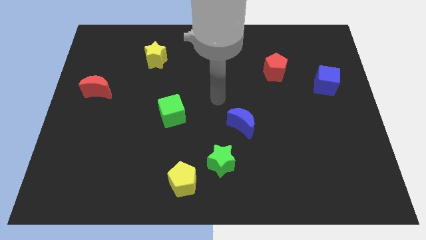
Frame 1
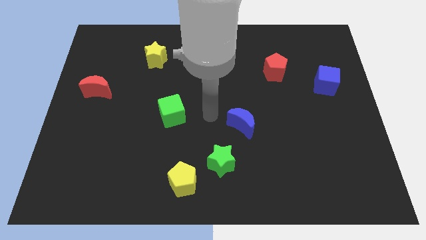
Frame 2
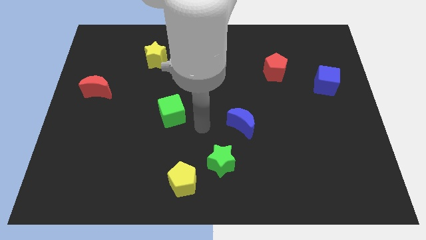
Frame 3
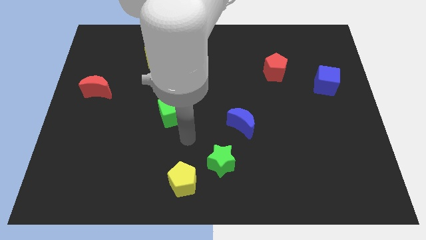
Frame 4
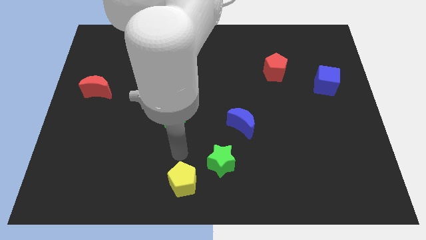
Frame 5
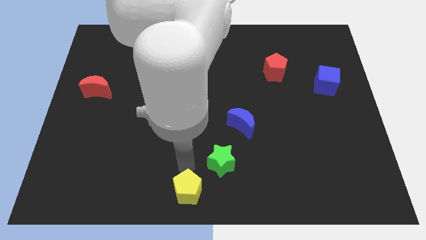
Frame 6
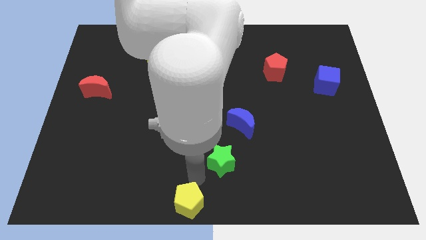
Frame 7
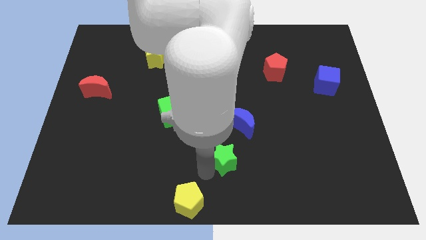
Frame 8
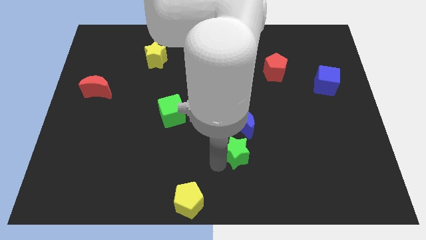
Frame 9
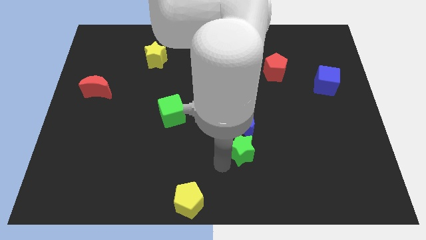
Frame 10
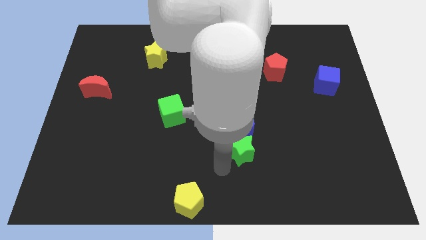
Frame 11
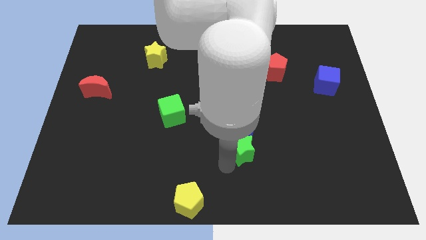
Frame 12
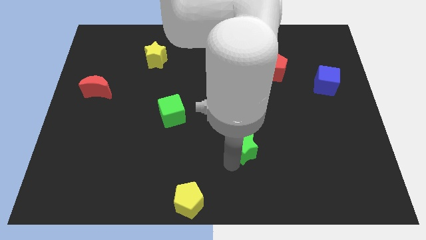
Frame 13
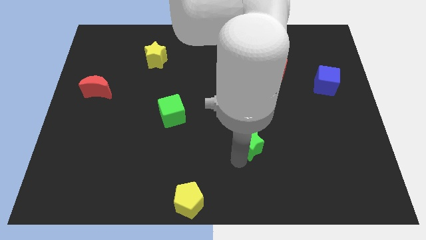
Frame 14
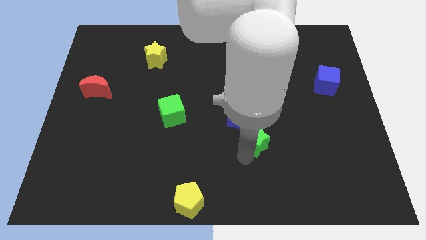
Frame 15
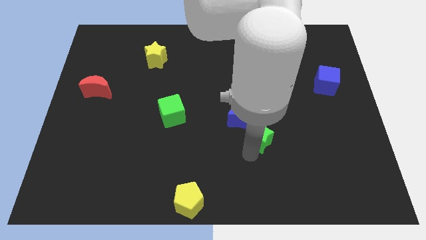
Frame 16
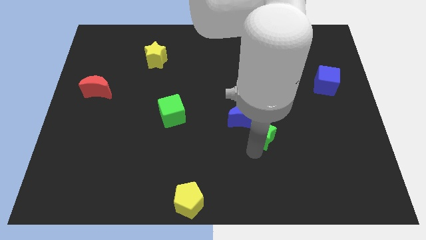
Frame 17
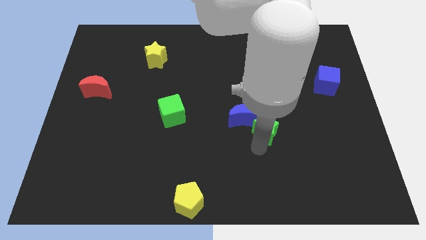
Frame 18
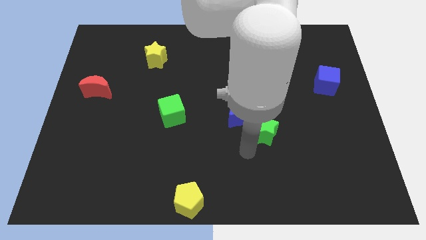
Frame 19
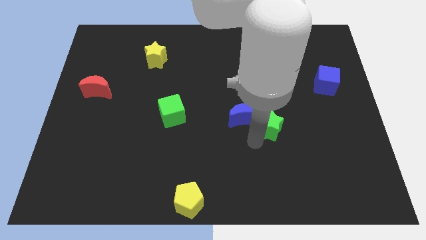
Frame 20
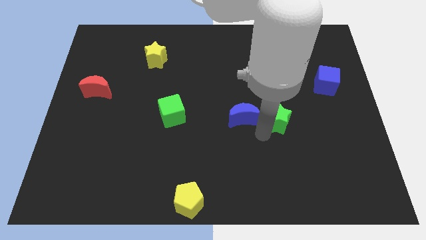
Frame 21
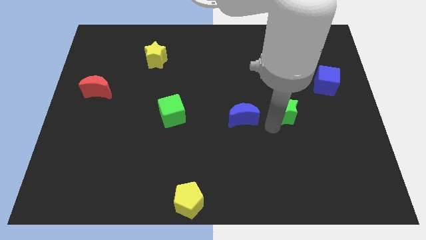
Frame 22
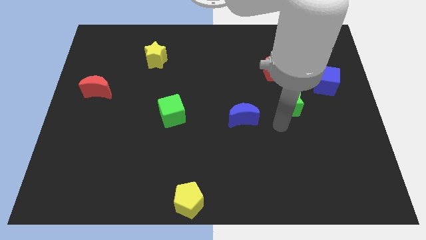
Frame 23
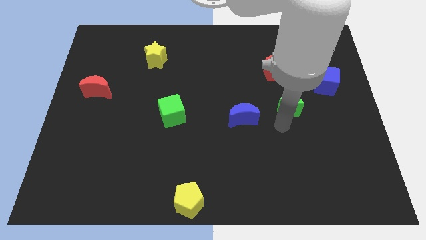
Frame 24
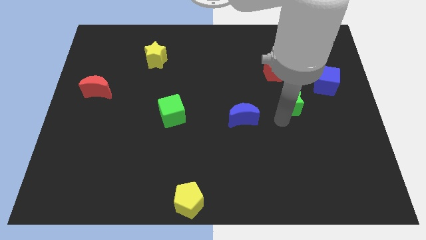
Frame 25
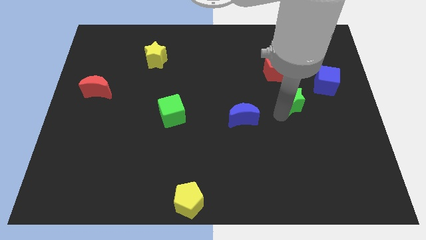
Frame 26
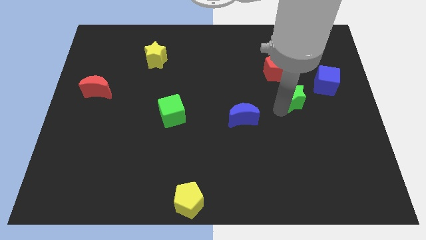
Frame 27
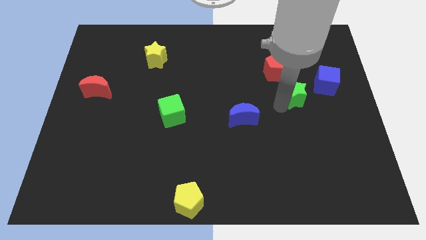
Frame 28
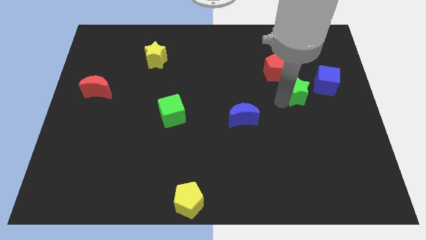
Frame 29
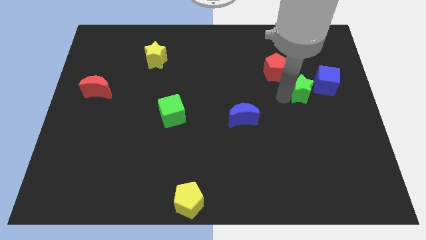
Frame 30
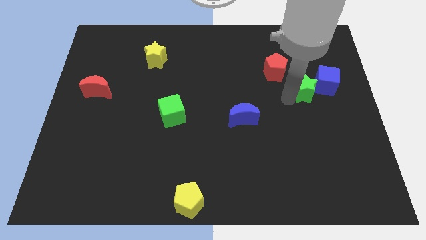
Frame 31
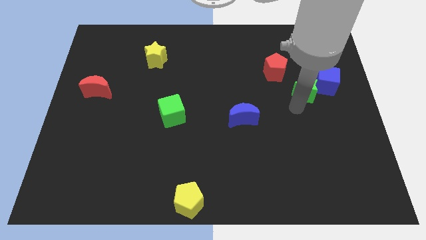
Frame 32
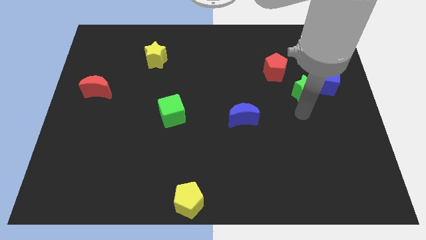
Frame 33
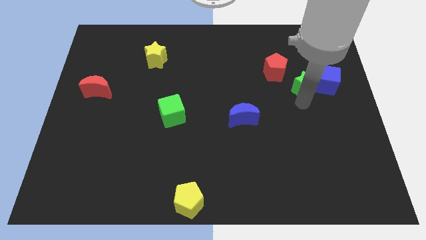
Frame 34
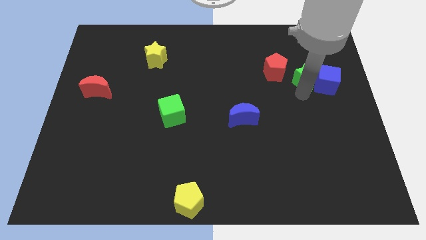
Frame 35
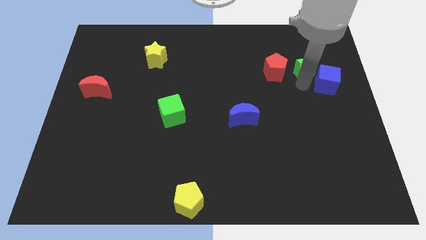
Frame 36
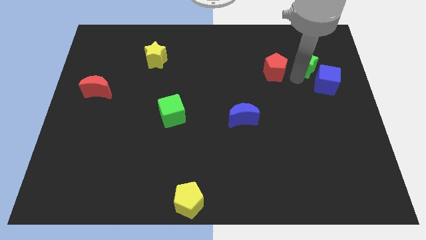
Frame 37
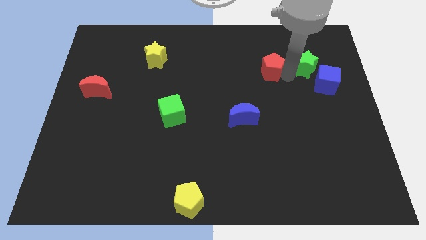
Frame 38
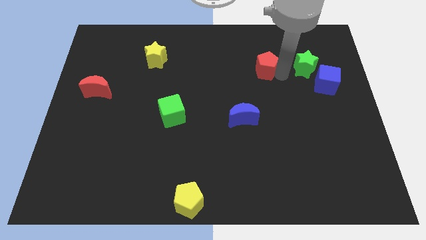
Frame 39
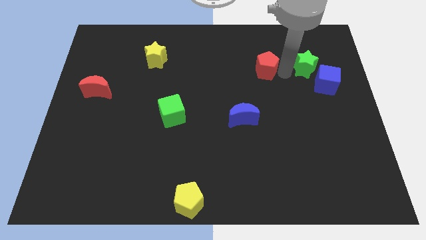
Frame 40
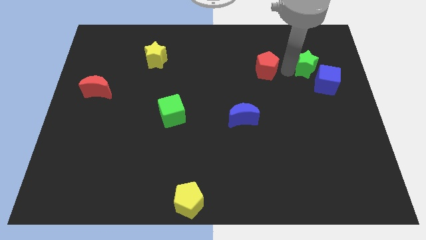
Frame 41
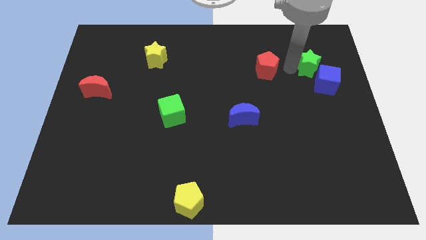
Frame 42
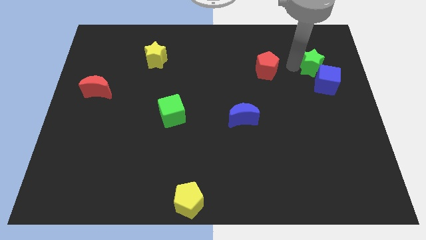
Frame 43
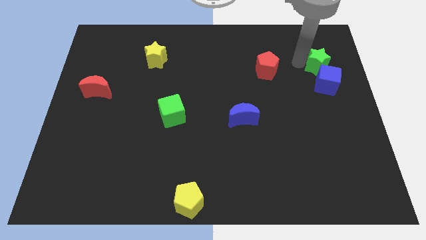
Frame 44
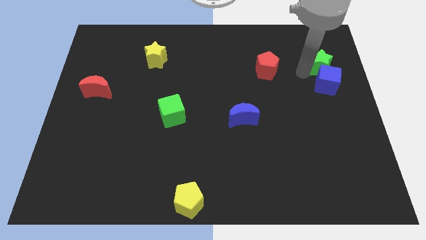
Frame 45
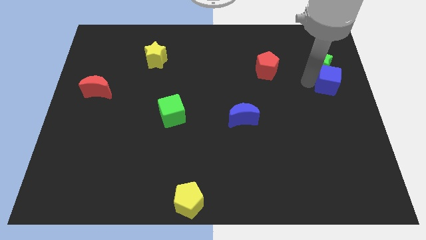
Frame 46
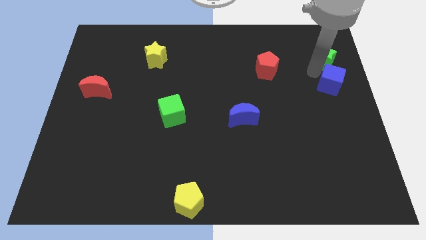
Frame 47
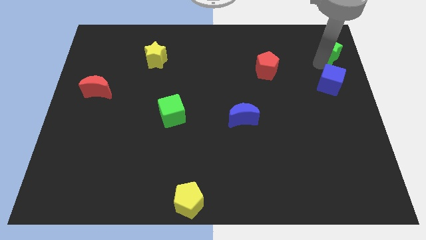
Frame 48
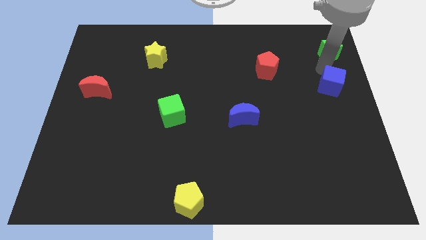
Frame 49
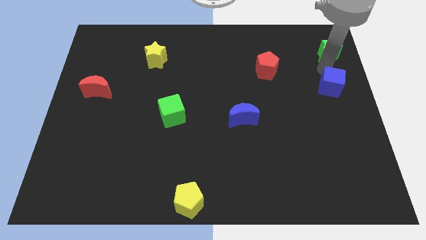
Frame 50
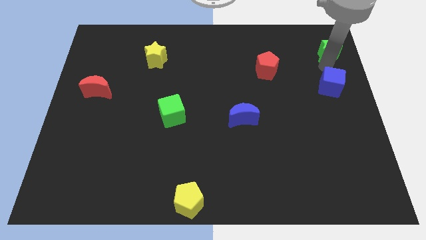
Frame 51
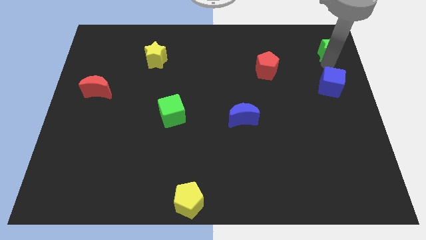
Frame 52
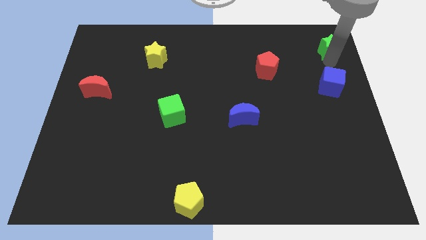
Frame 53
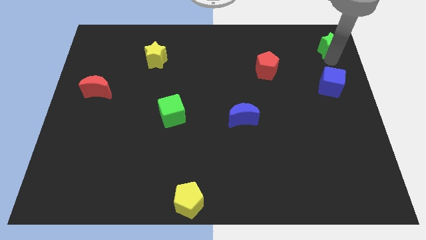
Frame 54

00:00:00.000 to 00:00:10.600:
slide the green star to the upper right corner

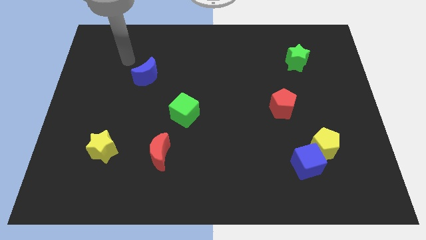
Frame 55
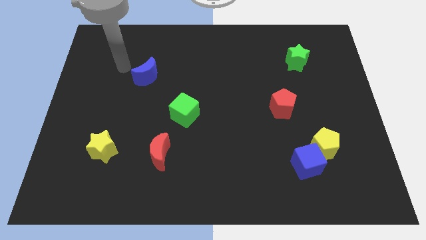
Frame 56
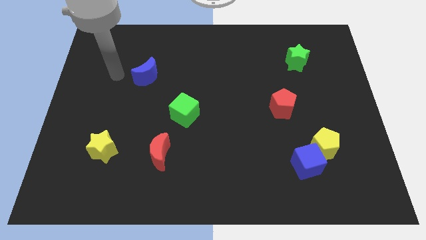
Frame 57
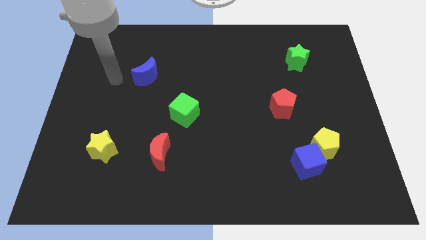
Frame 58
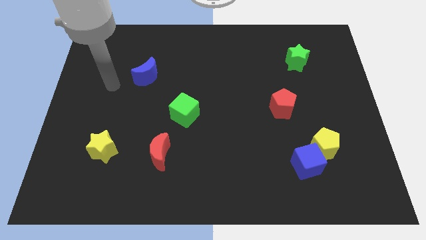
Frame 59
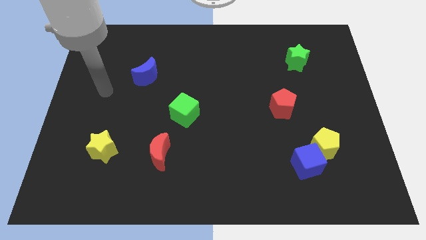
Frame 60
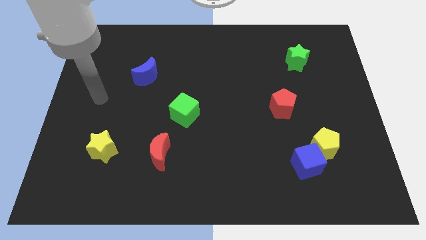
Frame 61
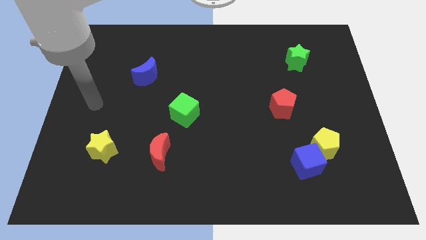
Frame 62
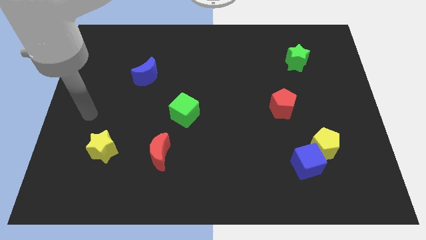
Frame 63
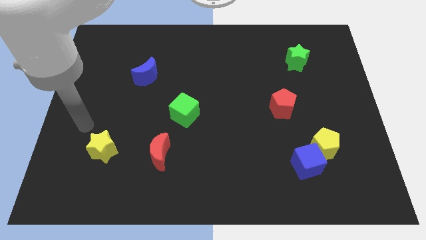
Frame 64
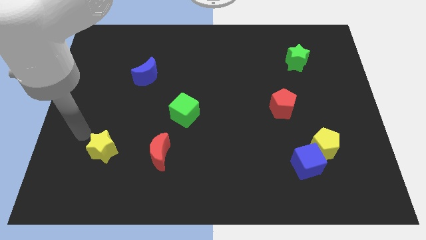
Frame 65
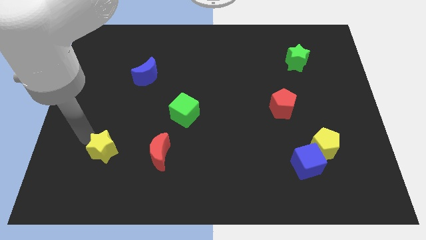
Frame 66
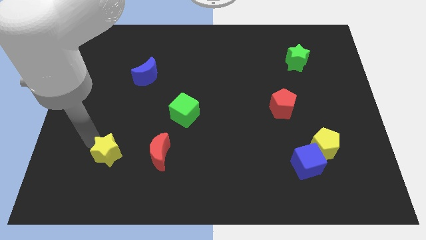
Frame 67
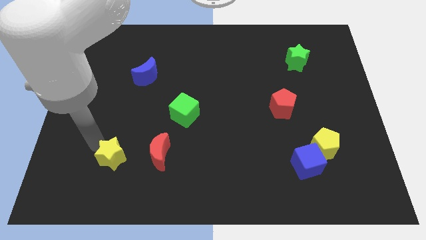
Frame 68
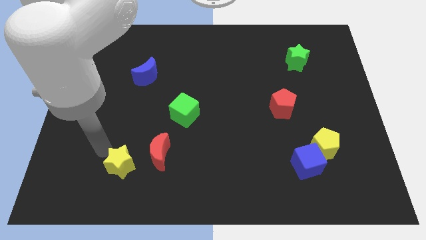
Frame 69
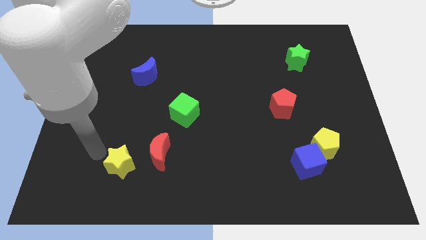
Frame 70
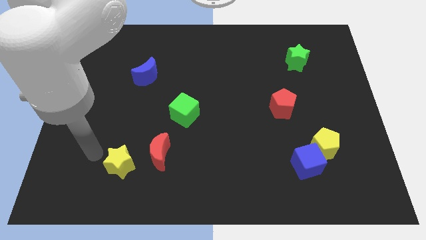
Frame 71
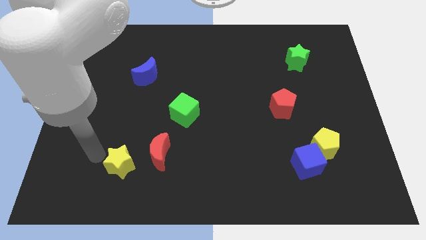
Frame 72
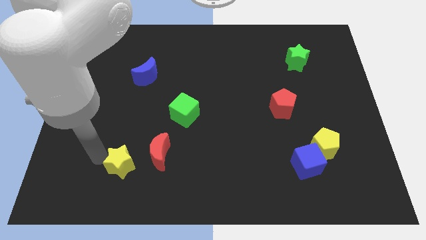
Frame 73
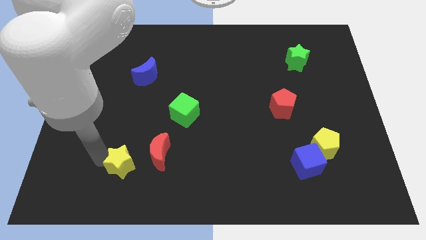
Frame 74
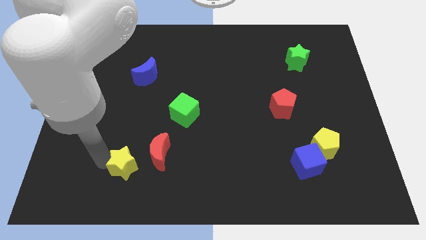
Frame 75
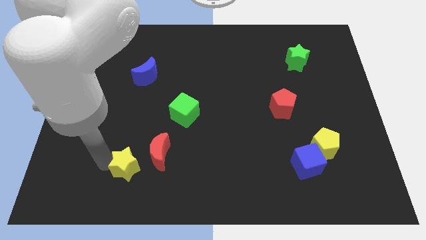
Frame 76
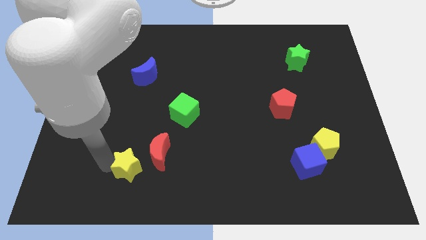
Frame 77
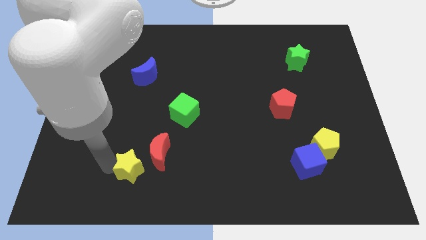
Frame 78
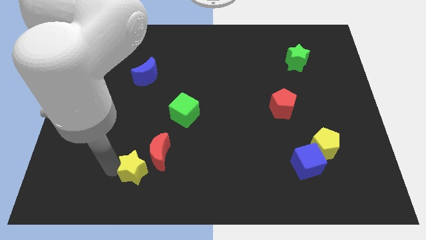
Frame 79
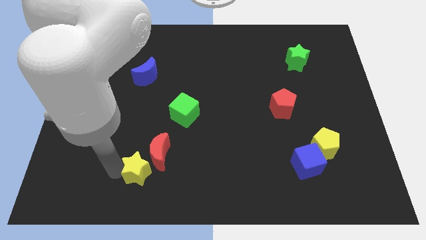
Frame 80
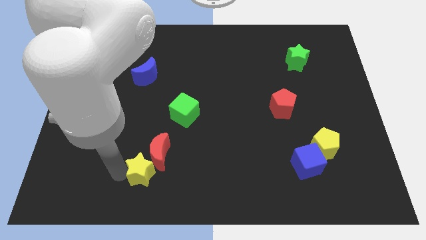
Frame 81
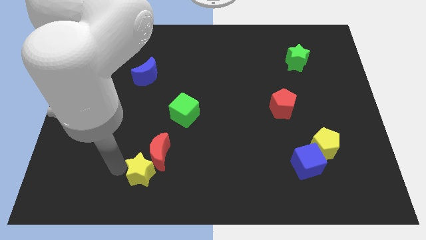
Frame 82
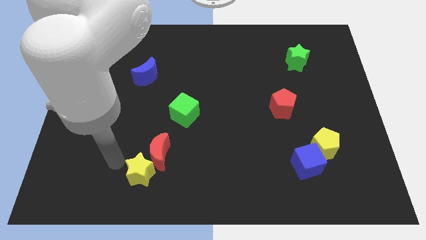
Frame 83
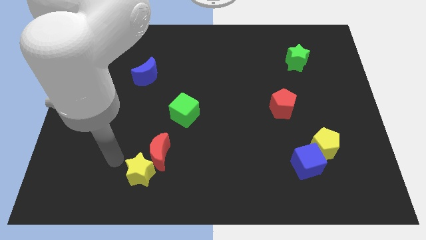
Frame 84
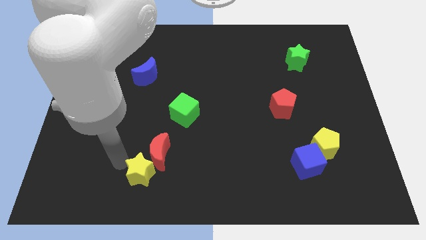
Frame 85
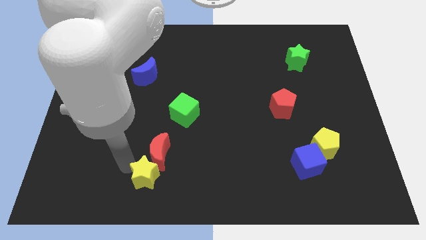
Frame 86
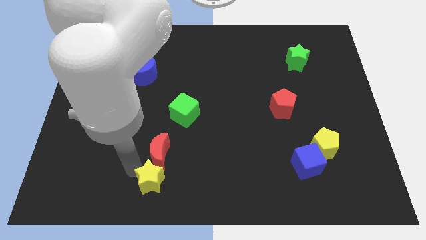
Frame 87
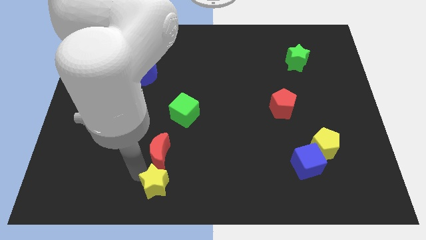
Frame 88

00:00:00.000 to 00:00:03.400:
slide the yellow star to the bottom
